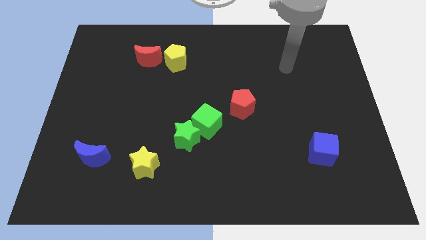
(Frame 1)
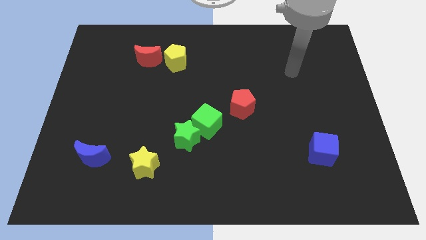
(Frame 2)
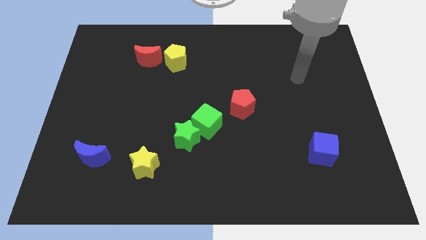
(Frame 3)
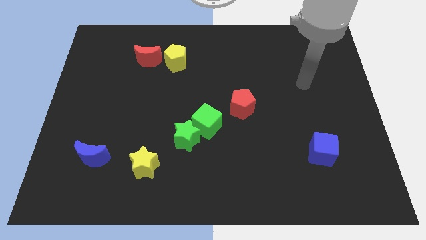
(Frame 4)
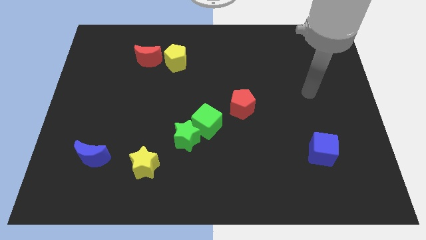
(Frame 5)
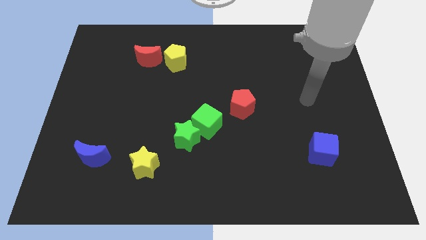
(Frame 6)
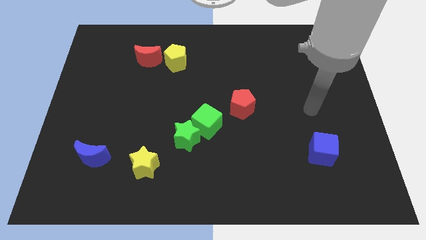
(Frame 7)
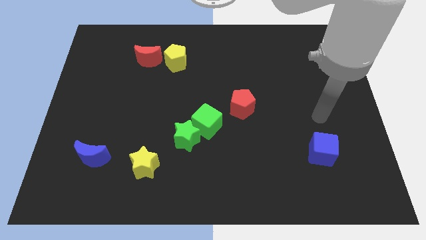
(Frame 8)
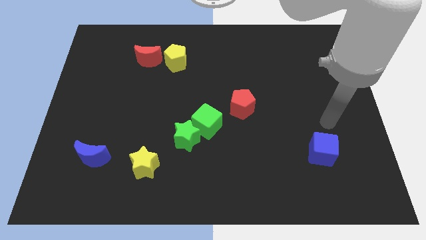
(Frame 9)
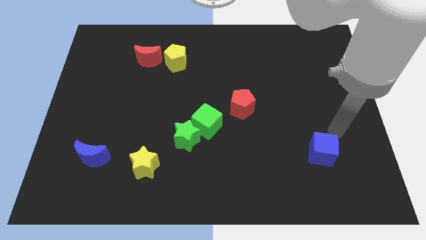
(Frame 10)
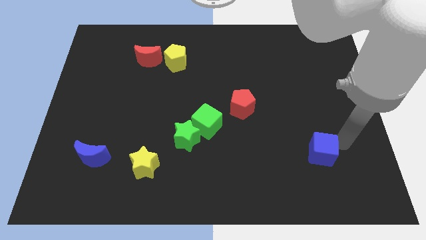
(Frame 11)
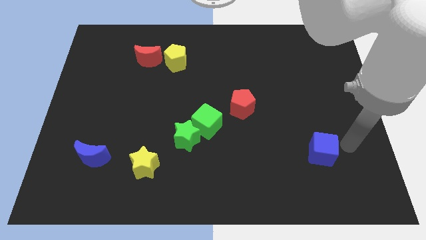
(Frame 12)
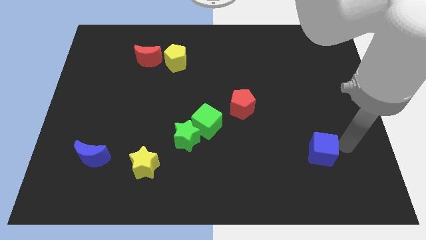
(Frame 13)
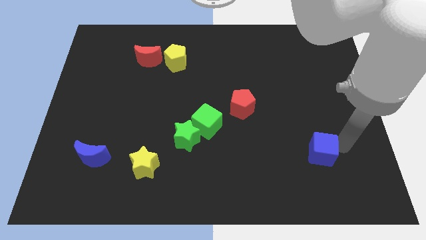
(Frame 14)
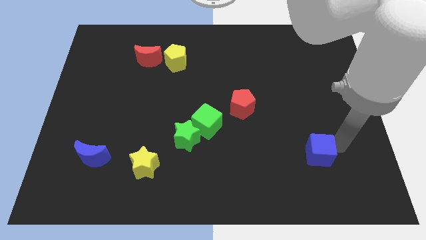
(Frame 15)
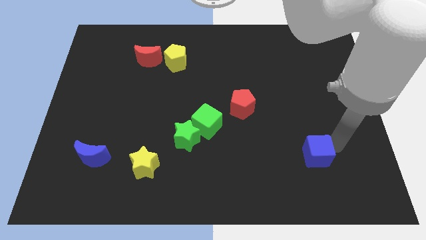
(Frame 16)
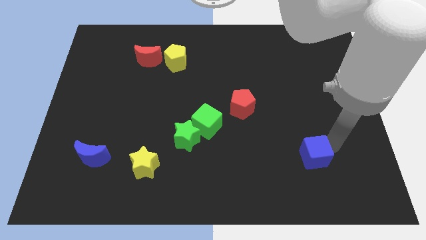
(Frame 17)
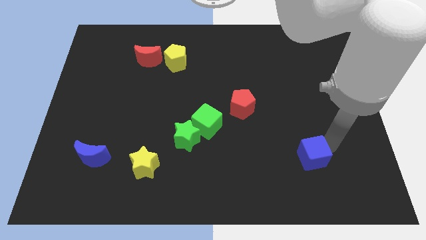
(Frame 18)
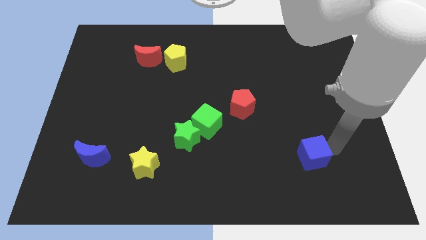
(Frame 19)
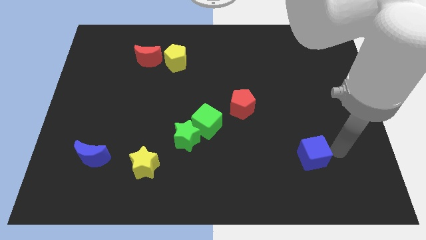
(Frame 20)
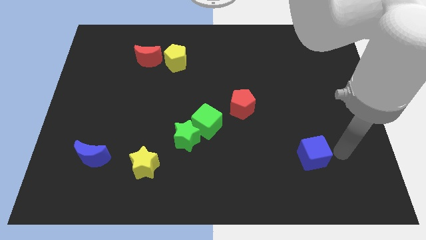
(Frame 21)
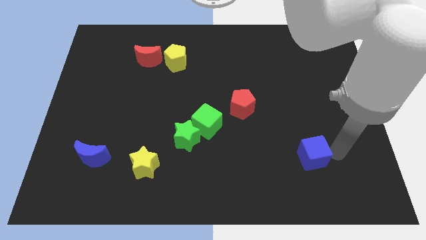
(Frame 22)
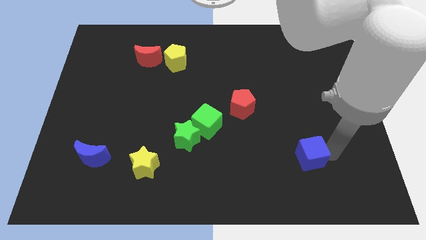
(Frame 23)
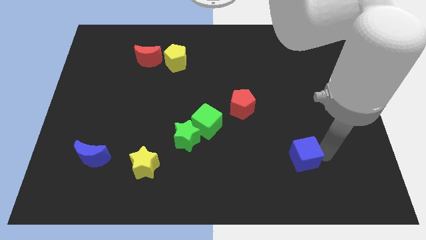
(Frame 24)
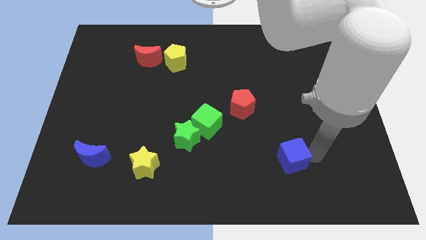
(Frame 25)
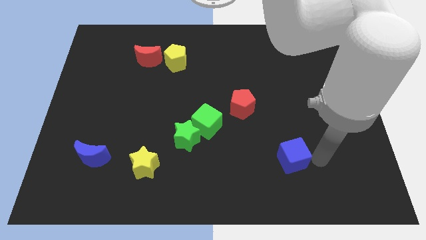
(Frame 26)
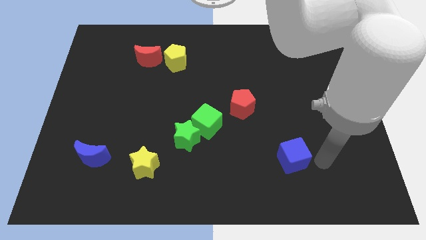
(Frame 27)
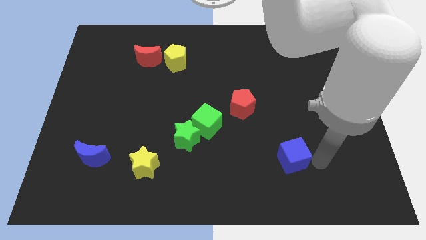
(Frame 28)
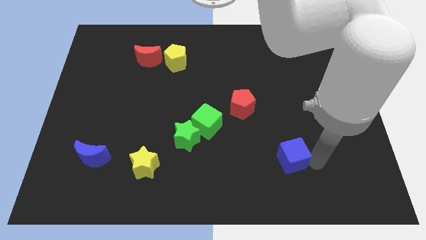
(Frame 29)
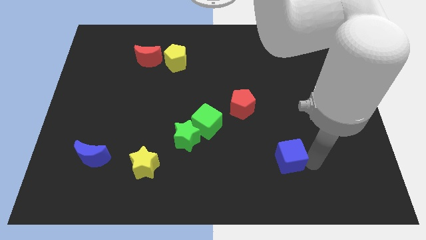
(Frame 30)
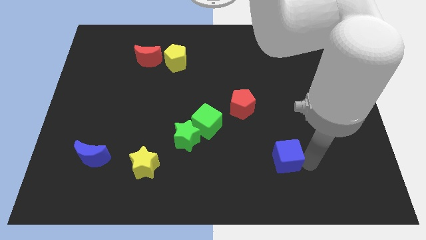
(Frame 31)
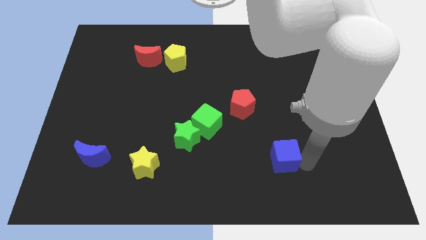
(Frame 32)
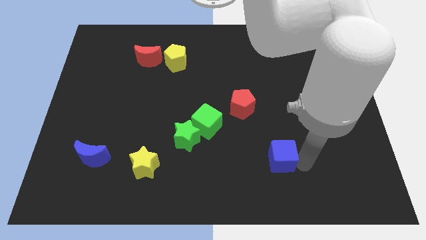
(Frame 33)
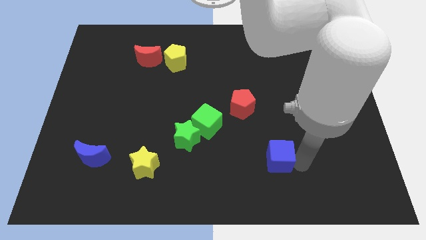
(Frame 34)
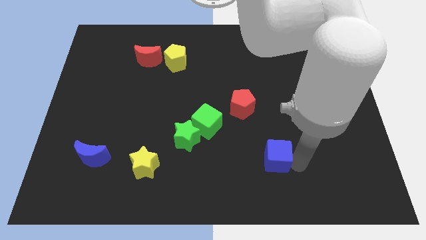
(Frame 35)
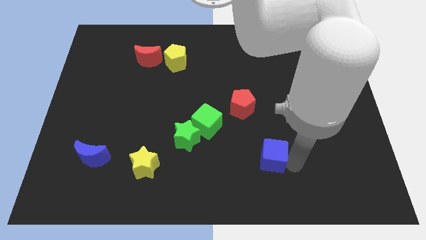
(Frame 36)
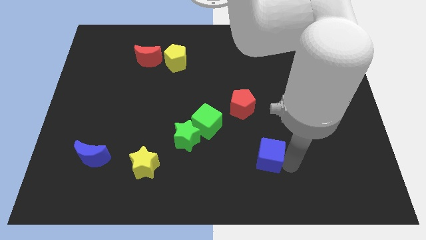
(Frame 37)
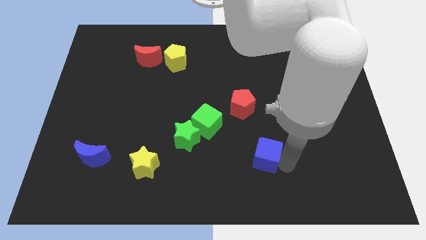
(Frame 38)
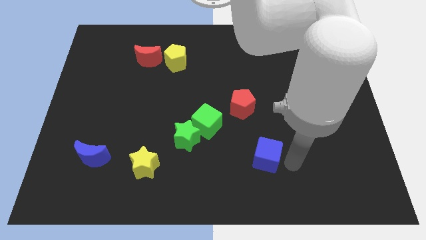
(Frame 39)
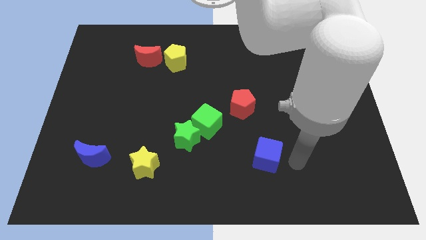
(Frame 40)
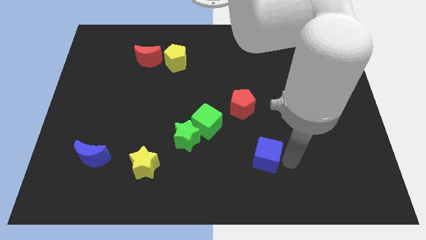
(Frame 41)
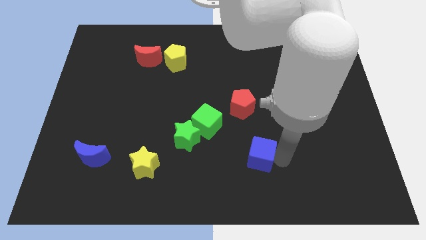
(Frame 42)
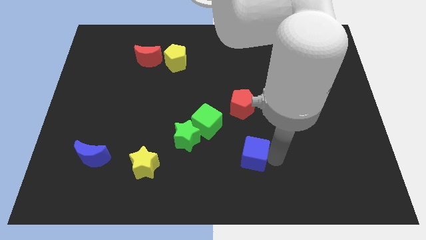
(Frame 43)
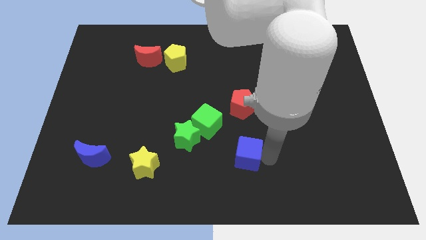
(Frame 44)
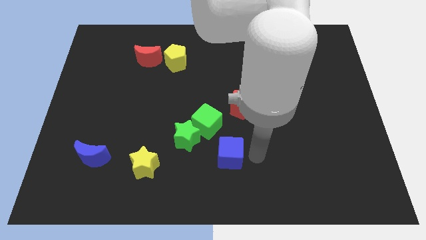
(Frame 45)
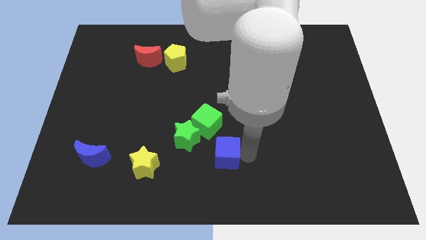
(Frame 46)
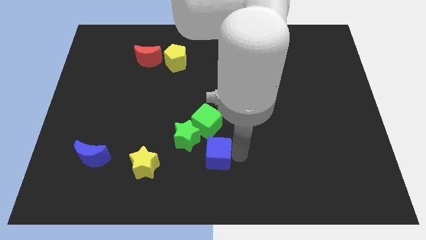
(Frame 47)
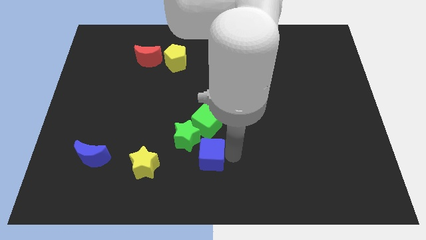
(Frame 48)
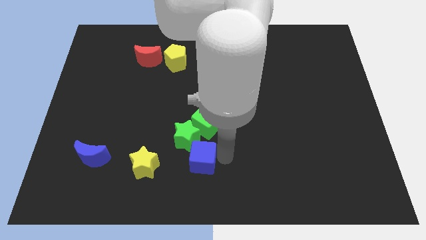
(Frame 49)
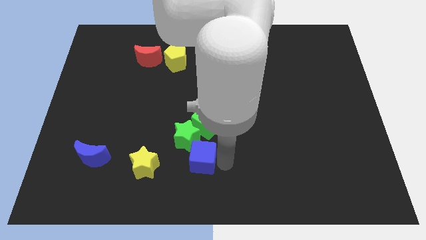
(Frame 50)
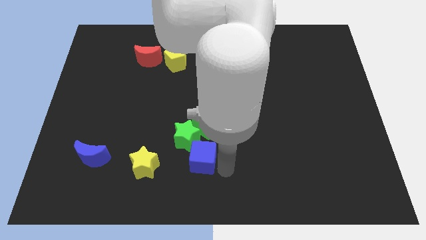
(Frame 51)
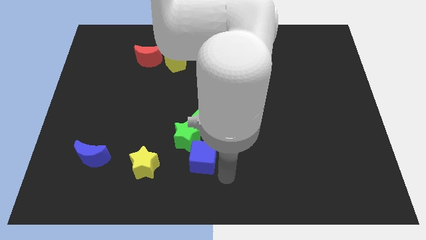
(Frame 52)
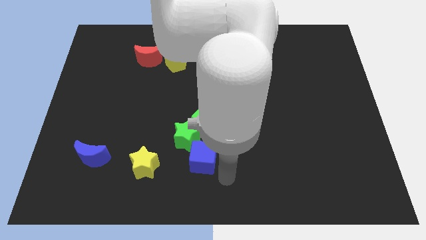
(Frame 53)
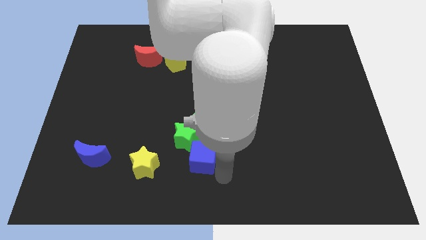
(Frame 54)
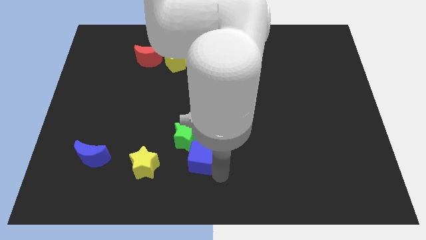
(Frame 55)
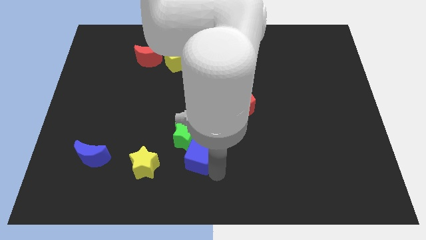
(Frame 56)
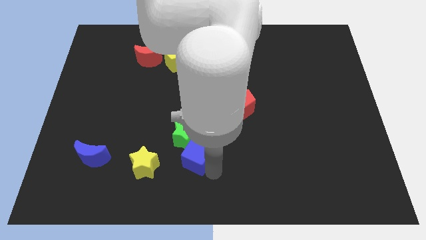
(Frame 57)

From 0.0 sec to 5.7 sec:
slide the blue cube to the bottom left of the green cube

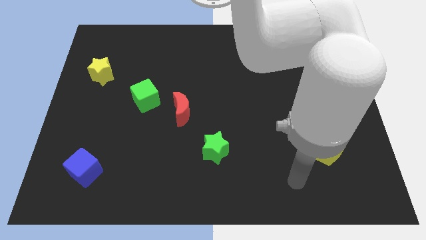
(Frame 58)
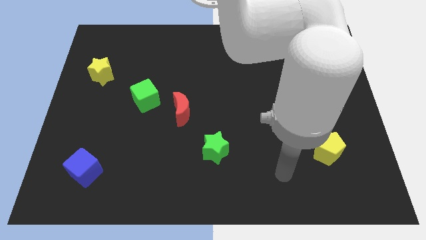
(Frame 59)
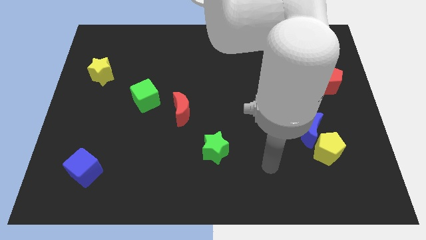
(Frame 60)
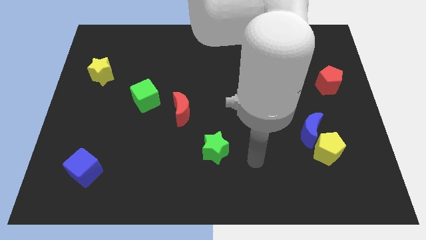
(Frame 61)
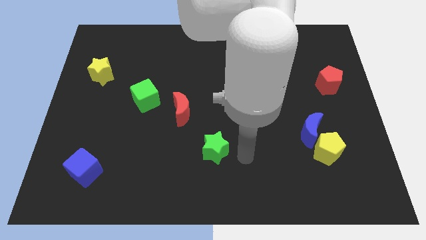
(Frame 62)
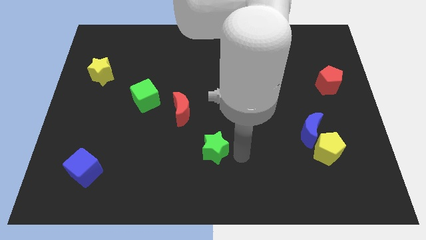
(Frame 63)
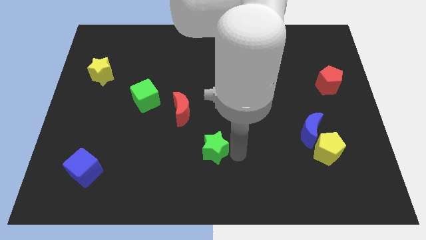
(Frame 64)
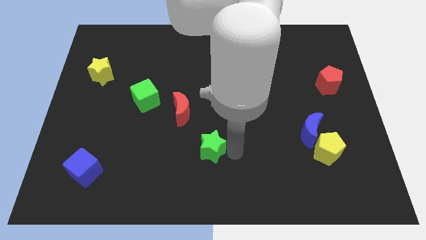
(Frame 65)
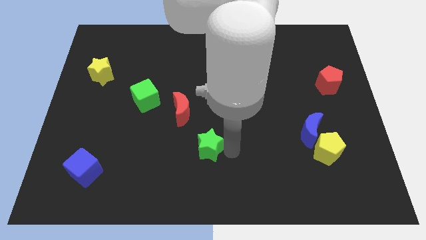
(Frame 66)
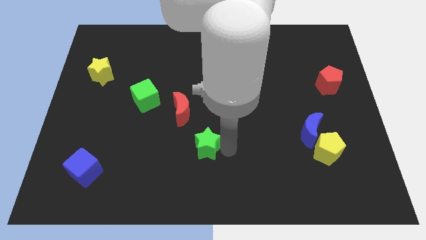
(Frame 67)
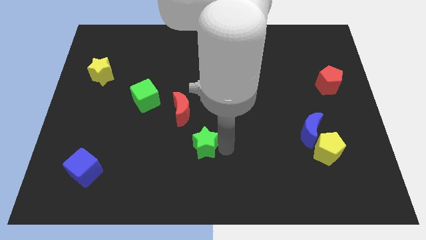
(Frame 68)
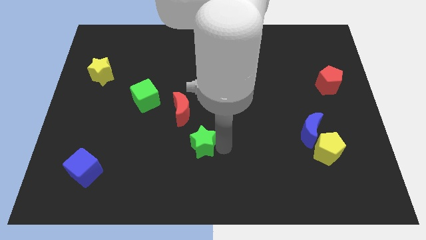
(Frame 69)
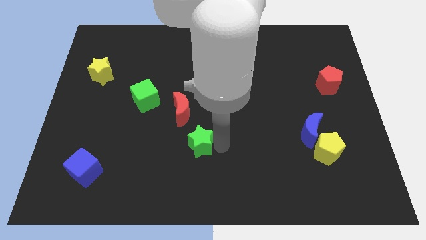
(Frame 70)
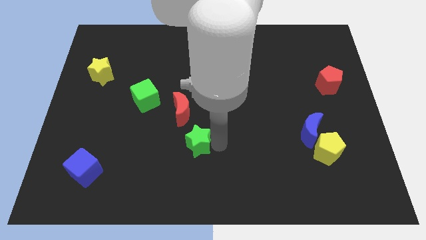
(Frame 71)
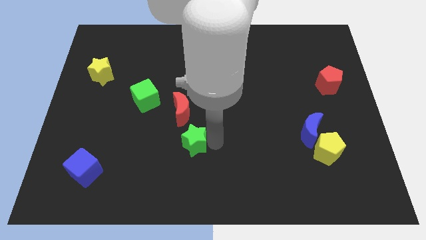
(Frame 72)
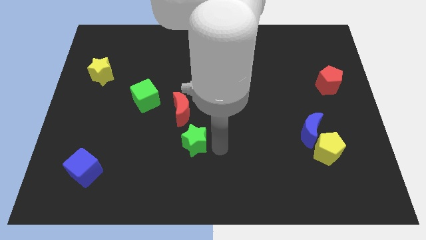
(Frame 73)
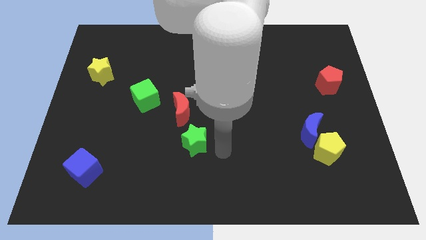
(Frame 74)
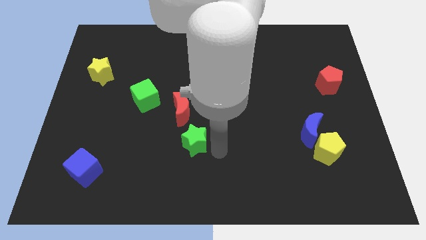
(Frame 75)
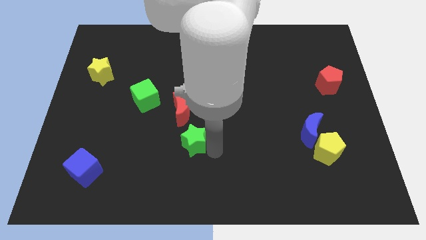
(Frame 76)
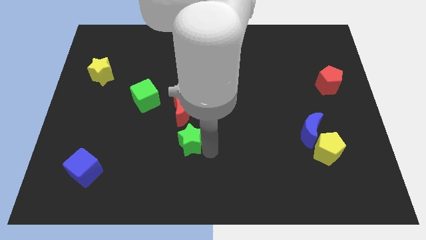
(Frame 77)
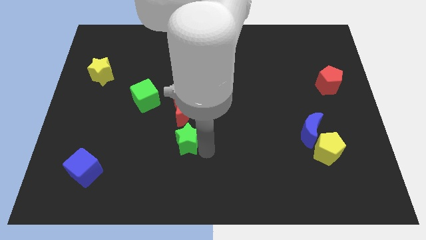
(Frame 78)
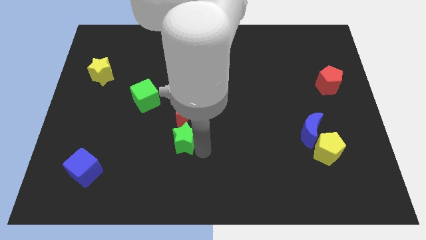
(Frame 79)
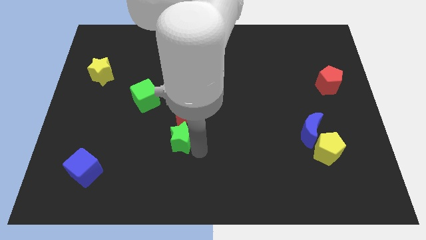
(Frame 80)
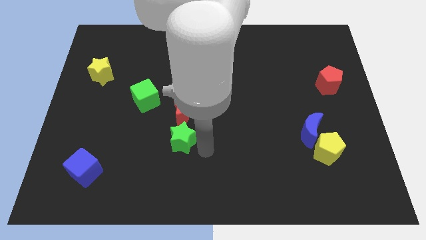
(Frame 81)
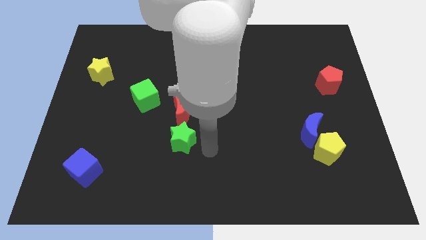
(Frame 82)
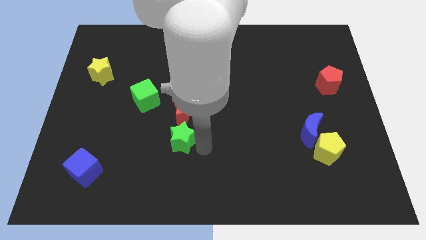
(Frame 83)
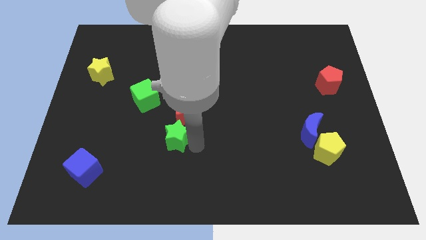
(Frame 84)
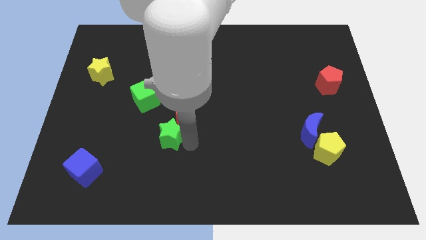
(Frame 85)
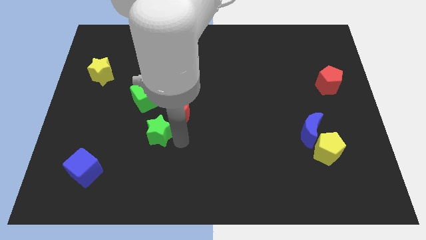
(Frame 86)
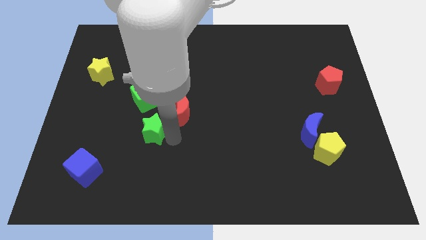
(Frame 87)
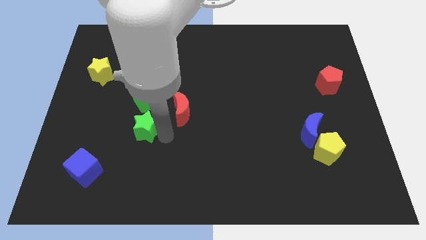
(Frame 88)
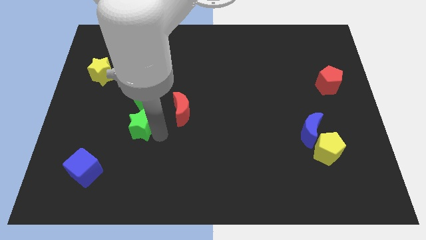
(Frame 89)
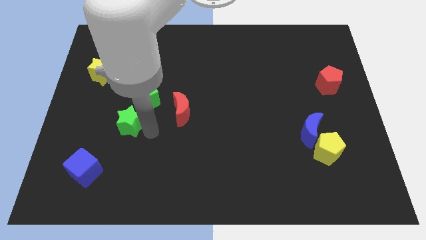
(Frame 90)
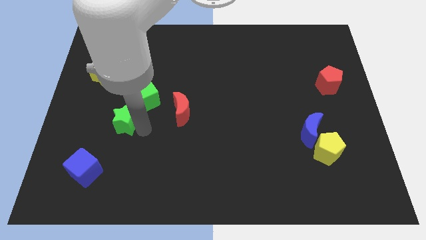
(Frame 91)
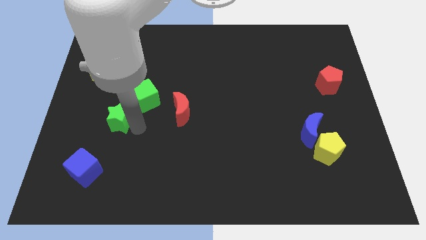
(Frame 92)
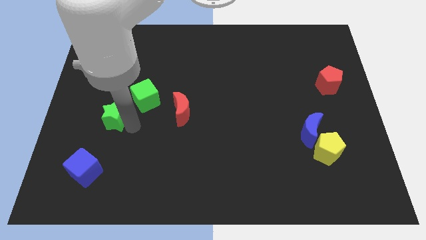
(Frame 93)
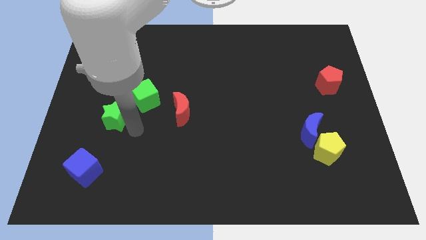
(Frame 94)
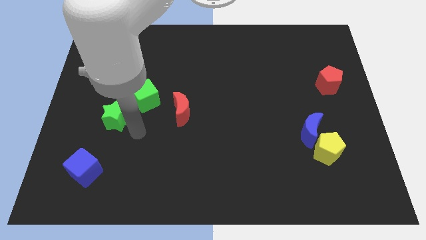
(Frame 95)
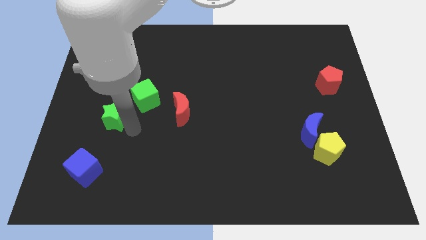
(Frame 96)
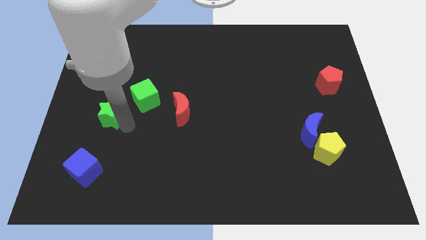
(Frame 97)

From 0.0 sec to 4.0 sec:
move the green star below the yellow star
